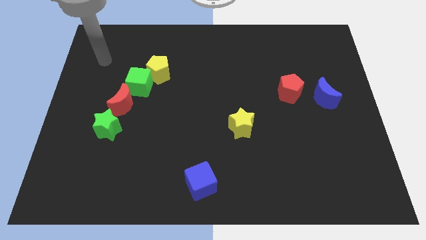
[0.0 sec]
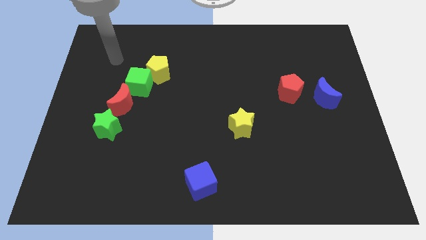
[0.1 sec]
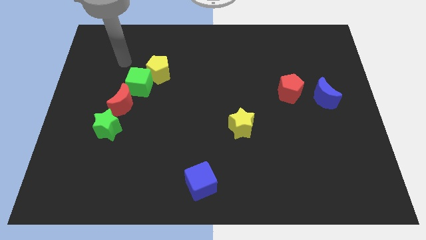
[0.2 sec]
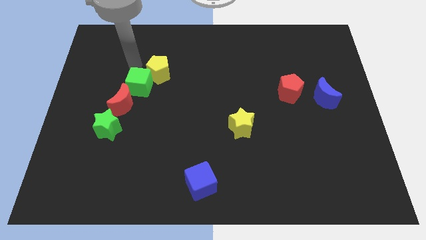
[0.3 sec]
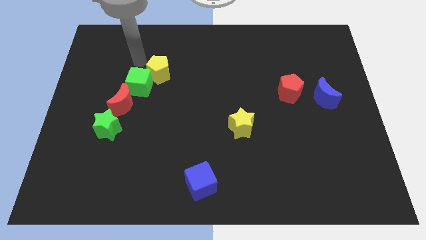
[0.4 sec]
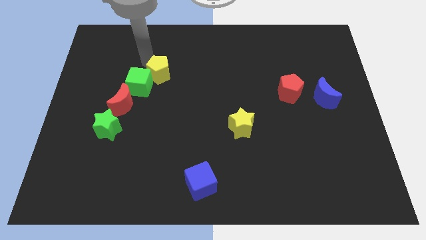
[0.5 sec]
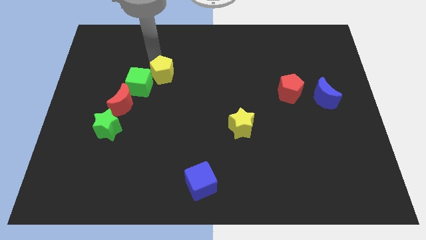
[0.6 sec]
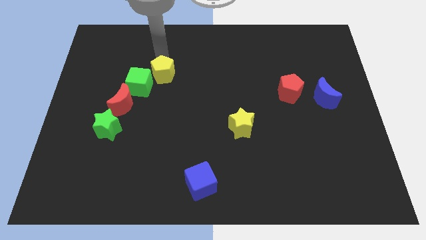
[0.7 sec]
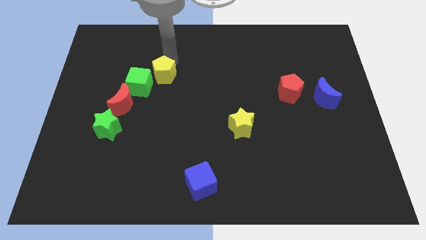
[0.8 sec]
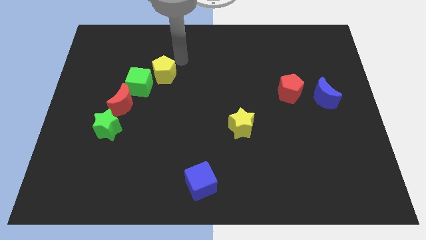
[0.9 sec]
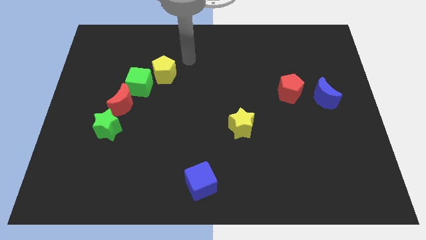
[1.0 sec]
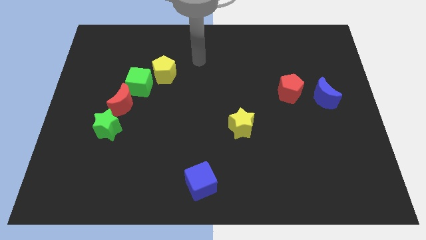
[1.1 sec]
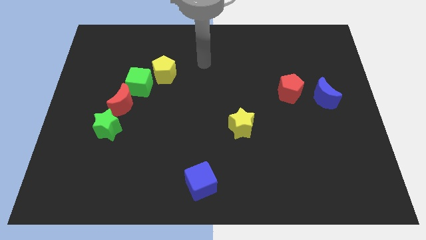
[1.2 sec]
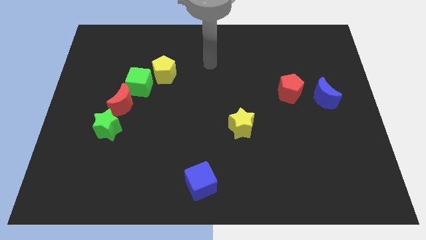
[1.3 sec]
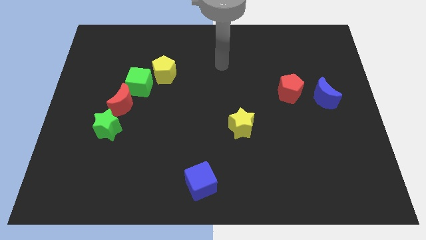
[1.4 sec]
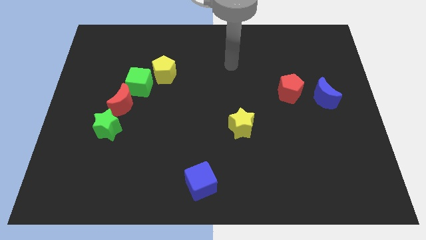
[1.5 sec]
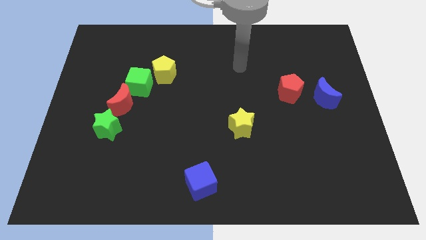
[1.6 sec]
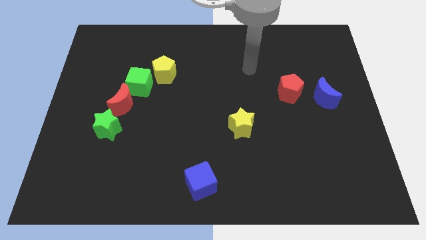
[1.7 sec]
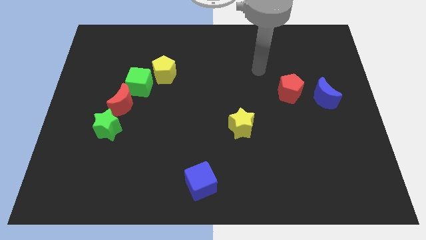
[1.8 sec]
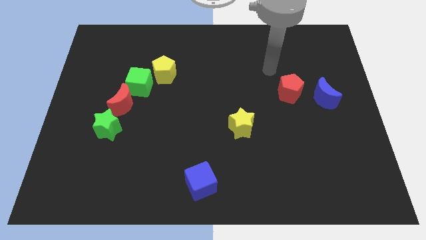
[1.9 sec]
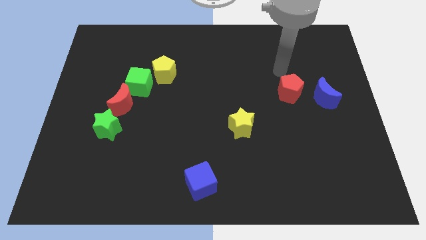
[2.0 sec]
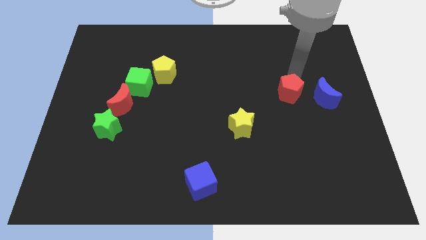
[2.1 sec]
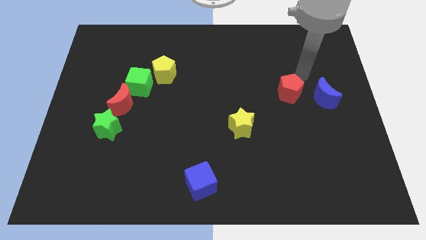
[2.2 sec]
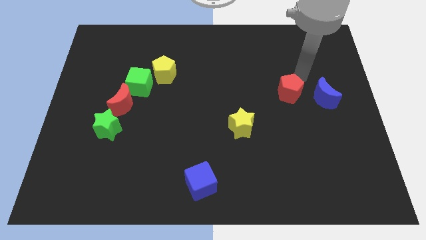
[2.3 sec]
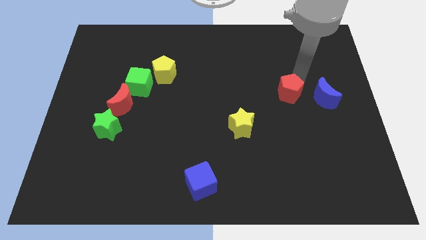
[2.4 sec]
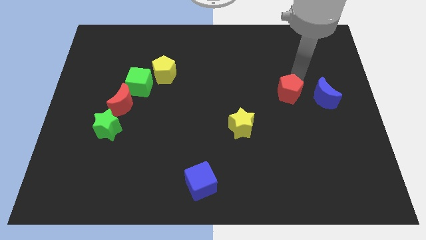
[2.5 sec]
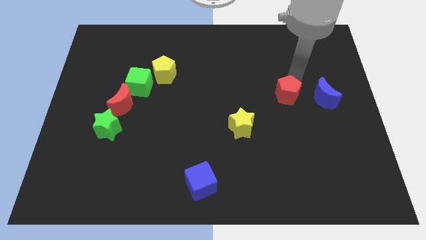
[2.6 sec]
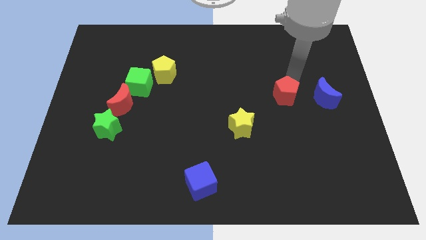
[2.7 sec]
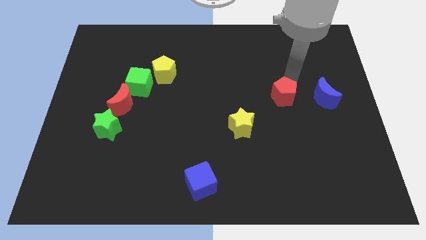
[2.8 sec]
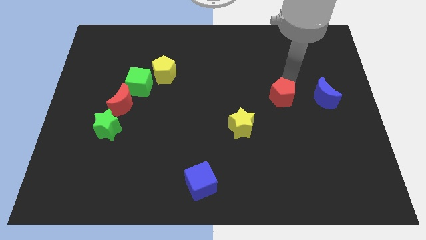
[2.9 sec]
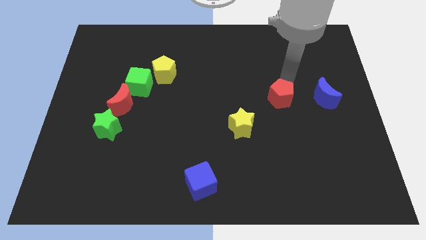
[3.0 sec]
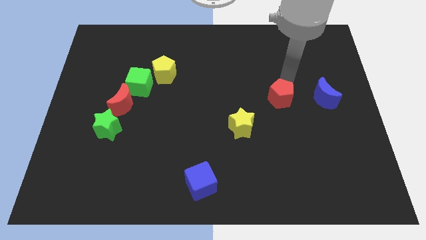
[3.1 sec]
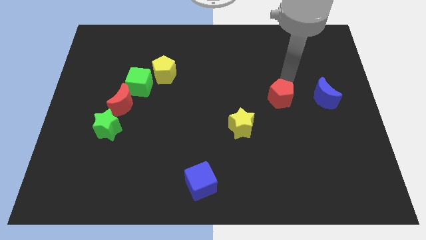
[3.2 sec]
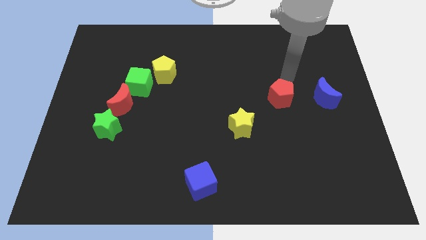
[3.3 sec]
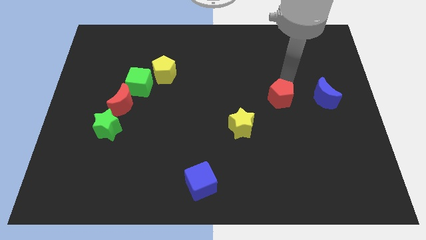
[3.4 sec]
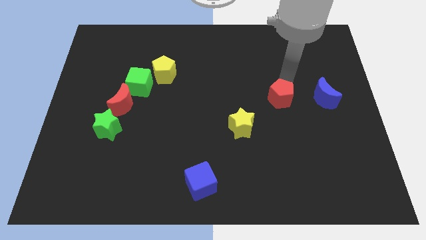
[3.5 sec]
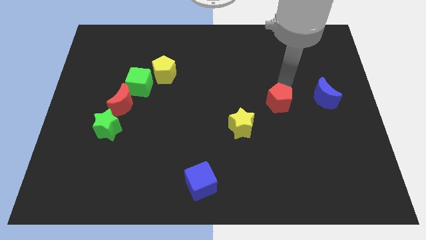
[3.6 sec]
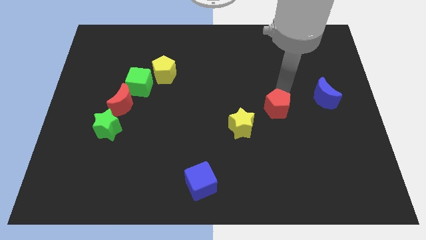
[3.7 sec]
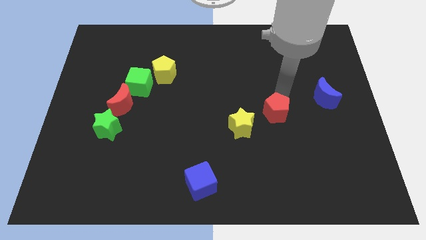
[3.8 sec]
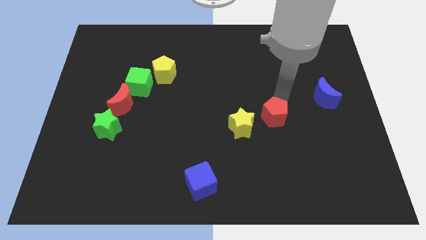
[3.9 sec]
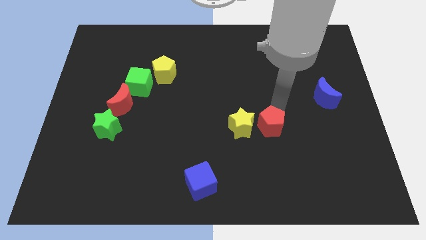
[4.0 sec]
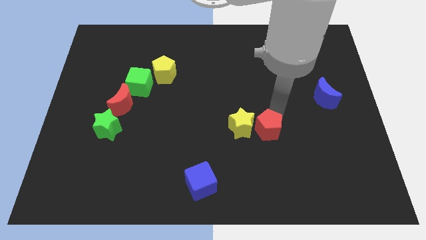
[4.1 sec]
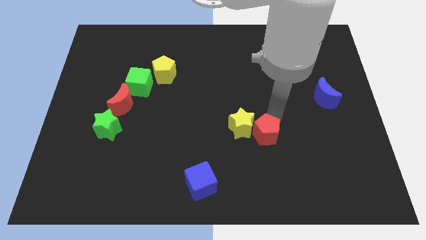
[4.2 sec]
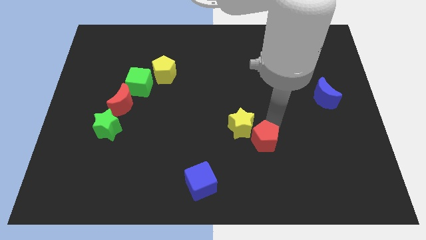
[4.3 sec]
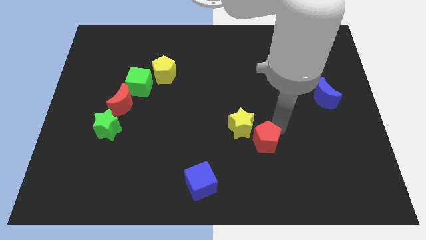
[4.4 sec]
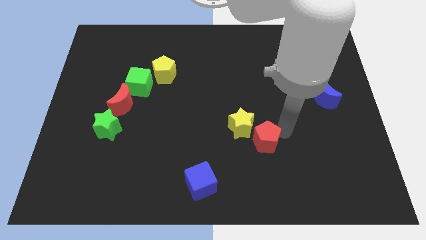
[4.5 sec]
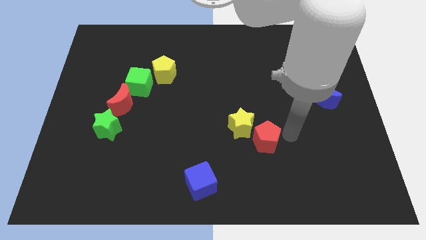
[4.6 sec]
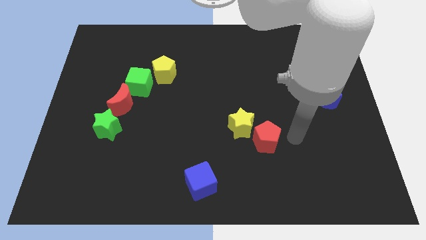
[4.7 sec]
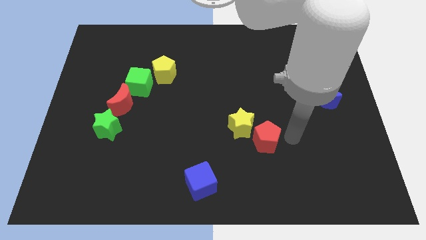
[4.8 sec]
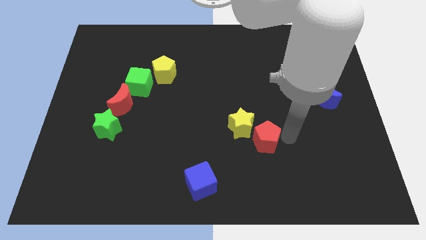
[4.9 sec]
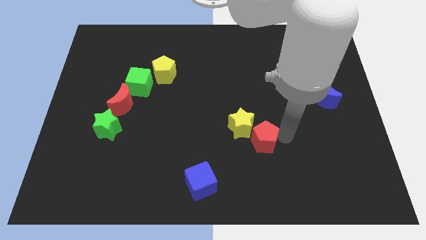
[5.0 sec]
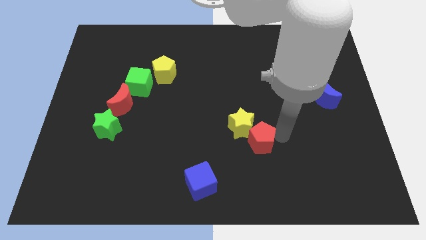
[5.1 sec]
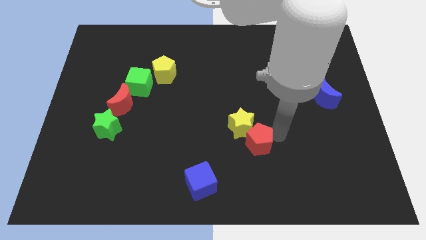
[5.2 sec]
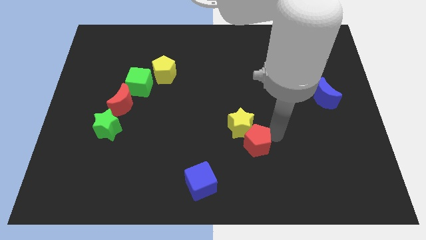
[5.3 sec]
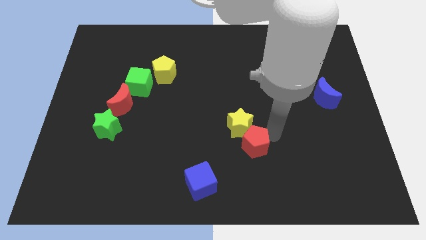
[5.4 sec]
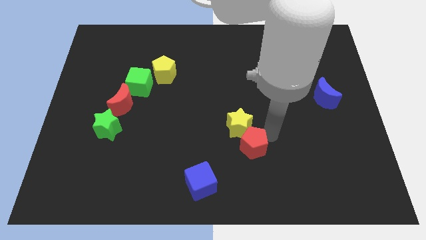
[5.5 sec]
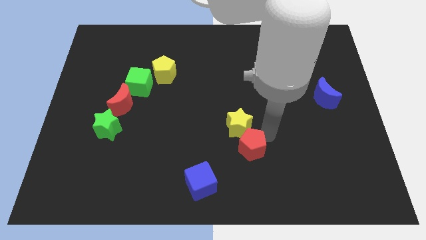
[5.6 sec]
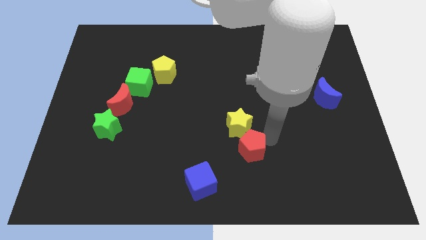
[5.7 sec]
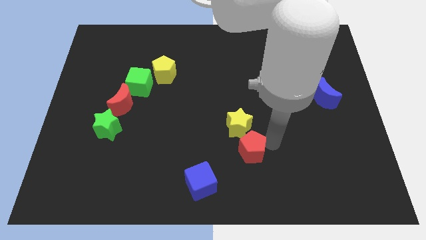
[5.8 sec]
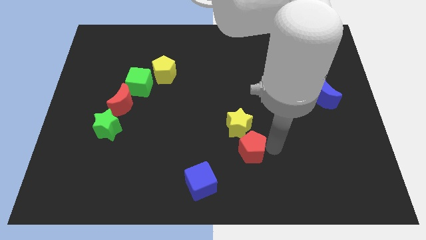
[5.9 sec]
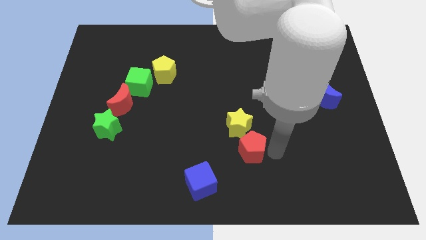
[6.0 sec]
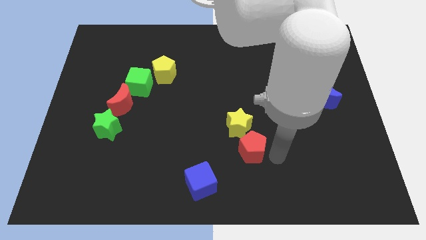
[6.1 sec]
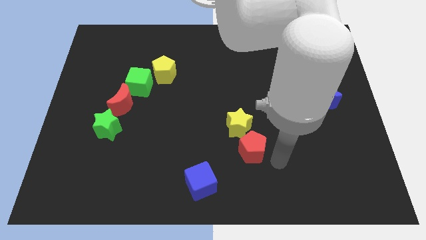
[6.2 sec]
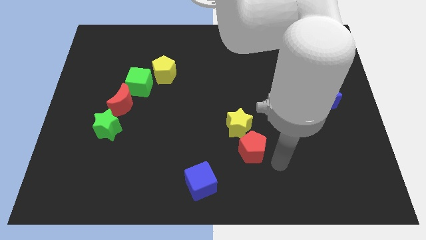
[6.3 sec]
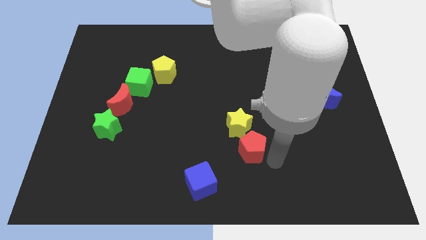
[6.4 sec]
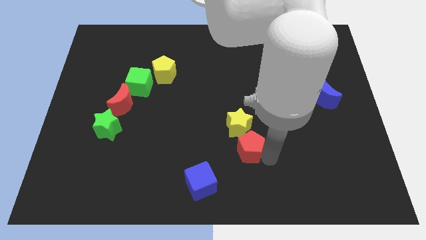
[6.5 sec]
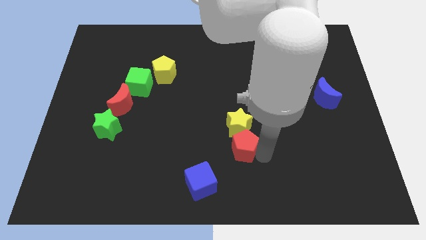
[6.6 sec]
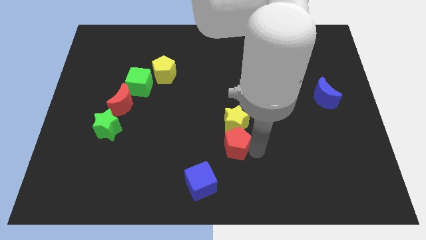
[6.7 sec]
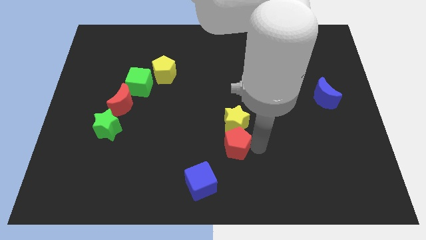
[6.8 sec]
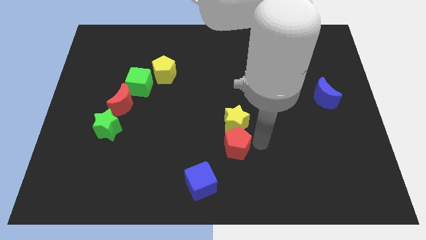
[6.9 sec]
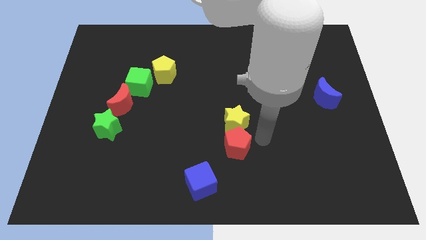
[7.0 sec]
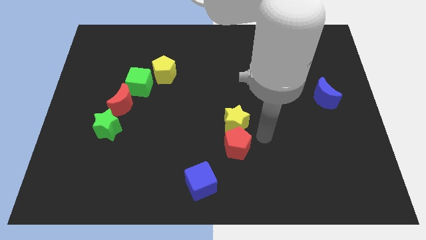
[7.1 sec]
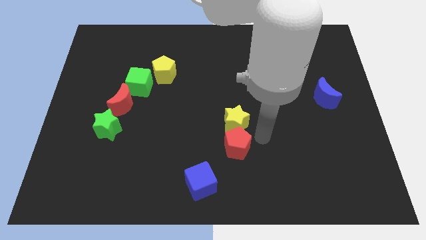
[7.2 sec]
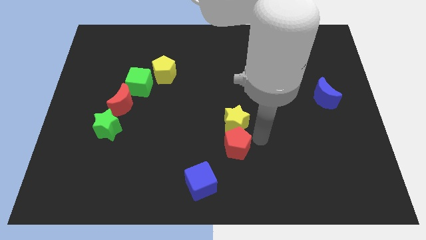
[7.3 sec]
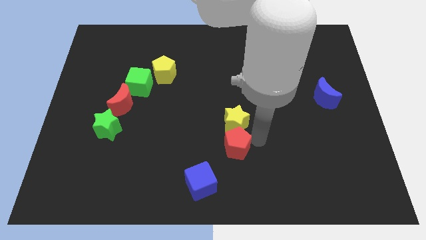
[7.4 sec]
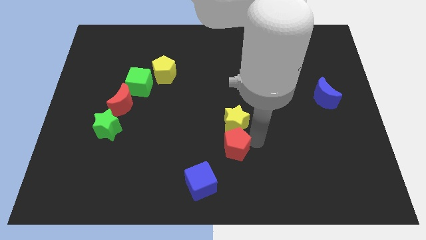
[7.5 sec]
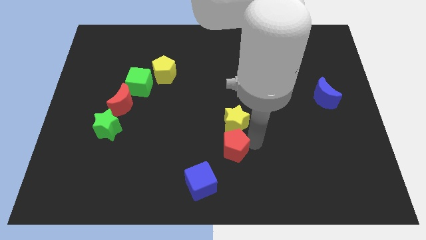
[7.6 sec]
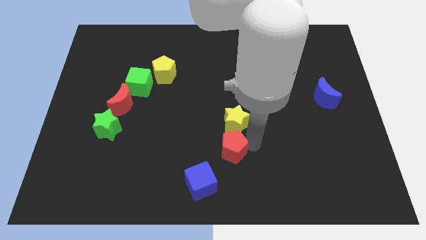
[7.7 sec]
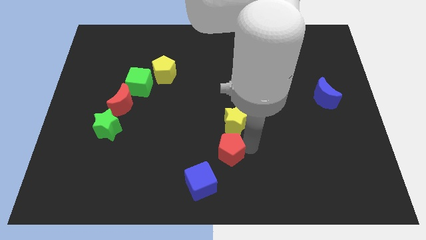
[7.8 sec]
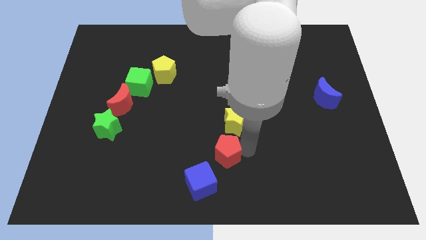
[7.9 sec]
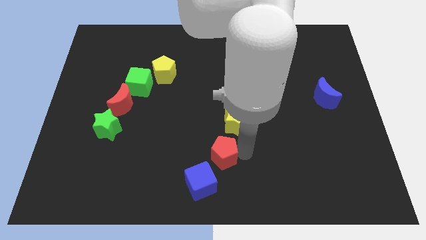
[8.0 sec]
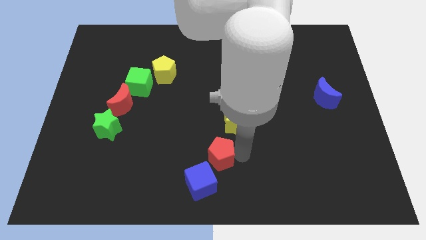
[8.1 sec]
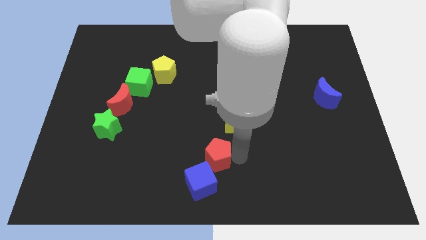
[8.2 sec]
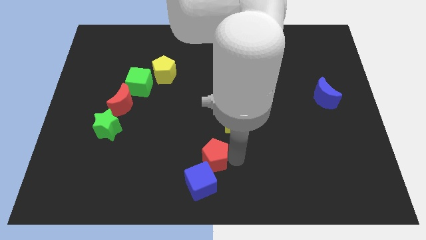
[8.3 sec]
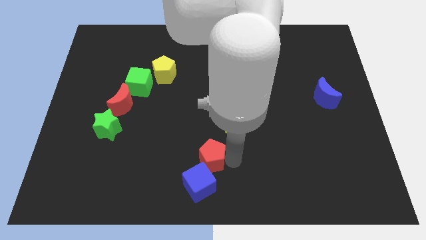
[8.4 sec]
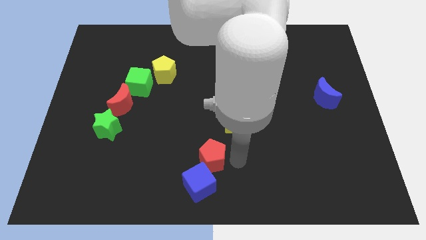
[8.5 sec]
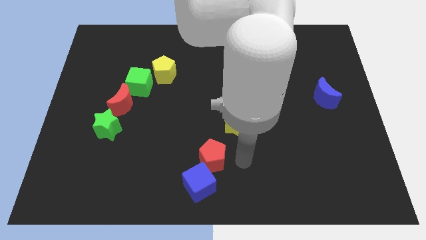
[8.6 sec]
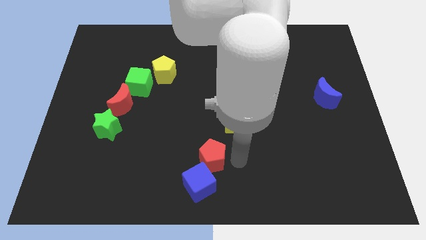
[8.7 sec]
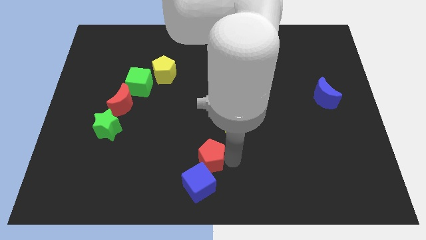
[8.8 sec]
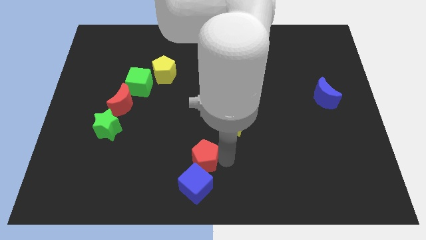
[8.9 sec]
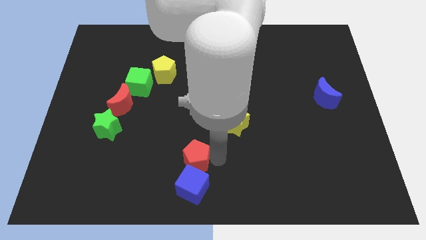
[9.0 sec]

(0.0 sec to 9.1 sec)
move the red pentagon diagonally up and to the left of the blue cube
